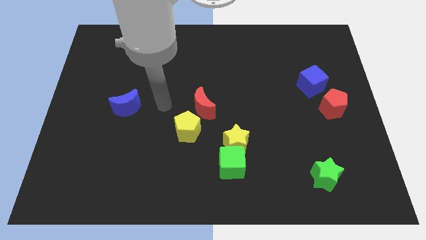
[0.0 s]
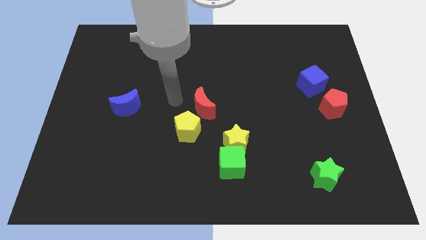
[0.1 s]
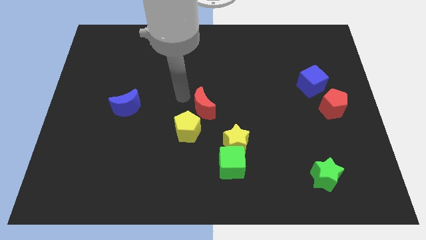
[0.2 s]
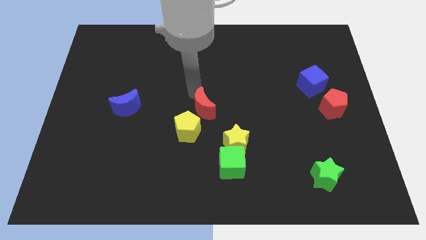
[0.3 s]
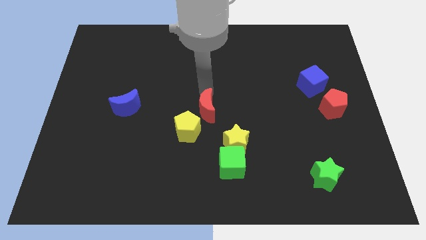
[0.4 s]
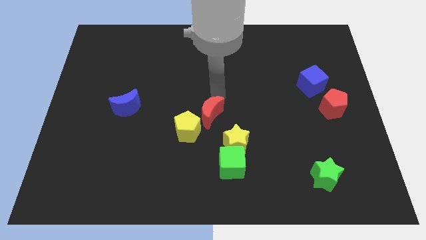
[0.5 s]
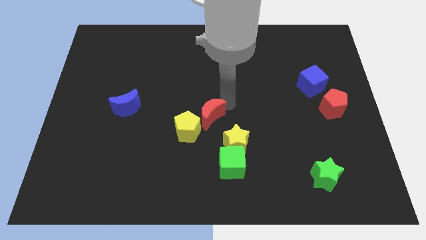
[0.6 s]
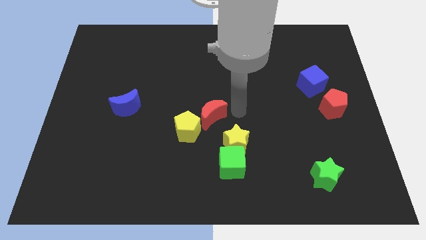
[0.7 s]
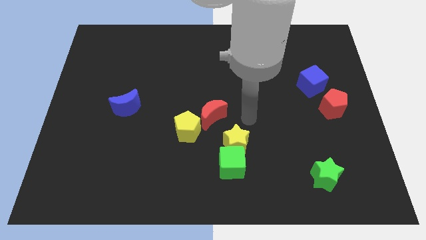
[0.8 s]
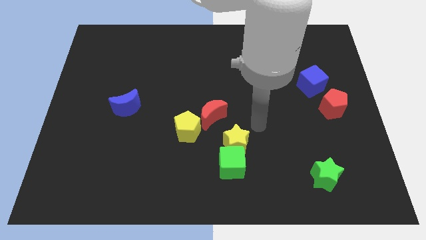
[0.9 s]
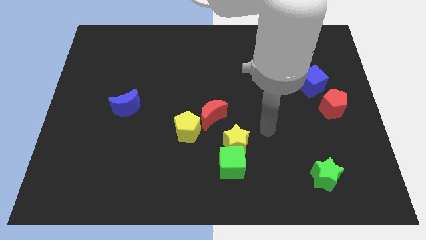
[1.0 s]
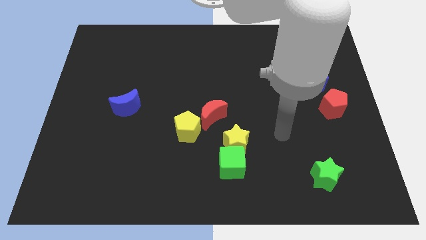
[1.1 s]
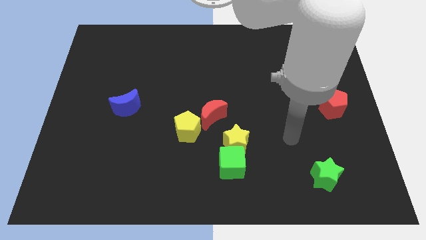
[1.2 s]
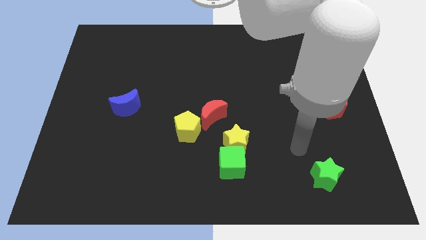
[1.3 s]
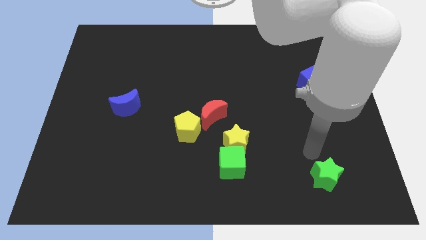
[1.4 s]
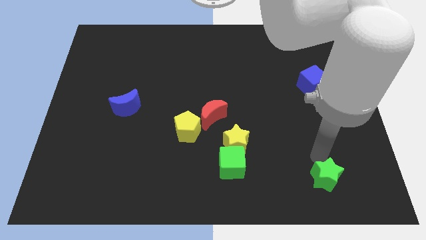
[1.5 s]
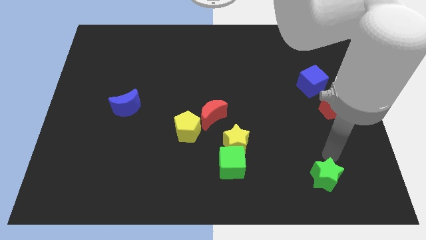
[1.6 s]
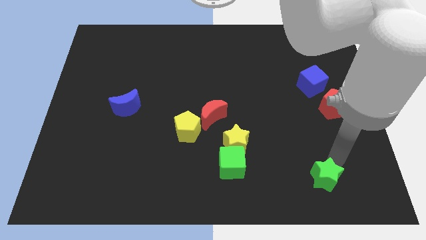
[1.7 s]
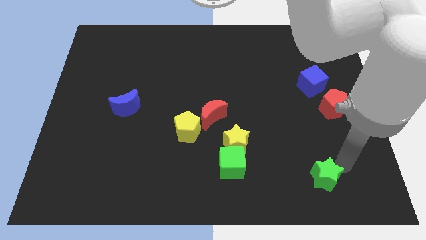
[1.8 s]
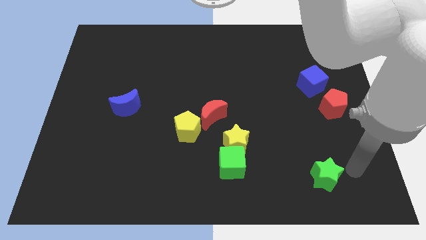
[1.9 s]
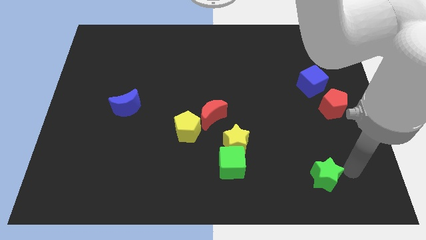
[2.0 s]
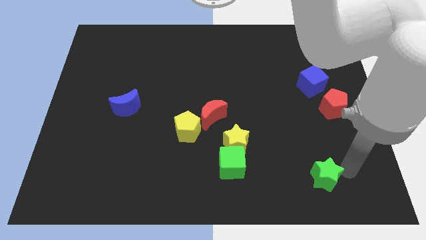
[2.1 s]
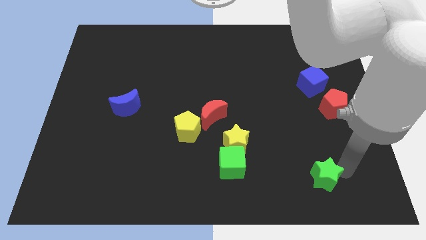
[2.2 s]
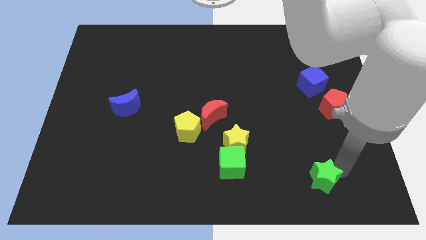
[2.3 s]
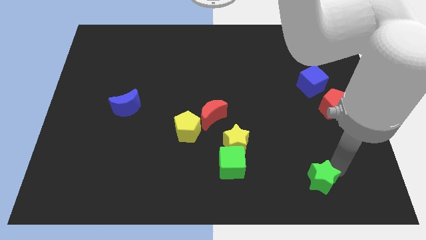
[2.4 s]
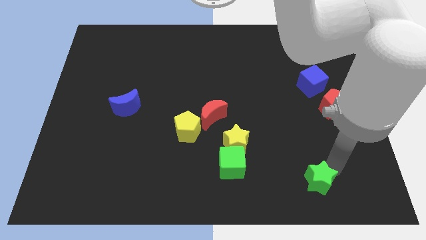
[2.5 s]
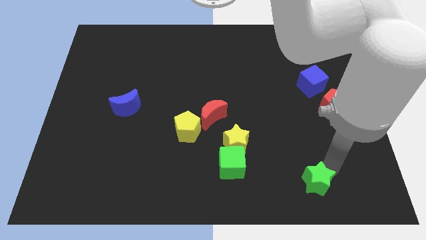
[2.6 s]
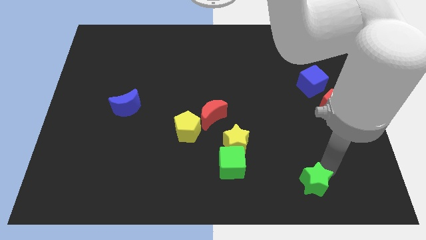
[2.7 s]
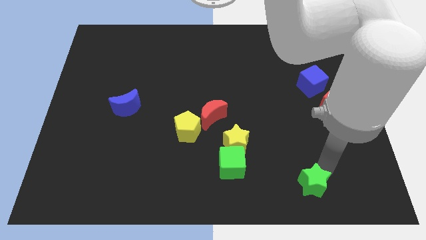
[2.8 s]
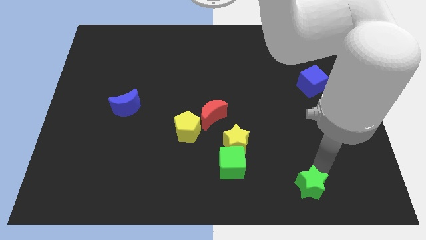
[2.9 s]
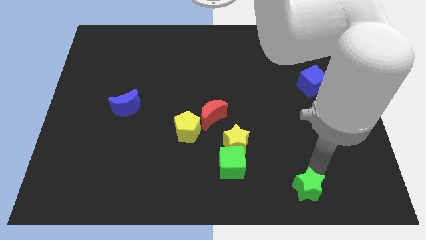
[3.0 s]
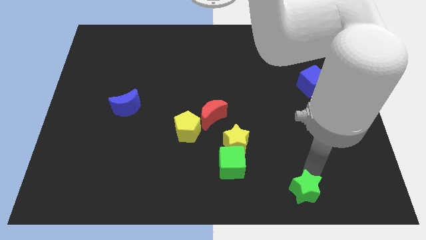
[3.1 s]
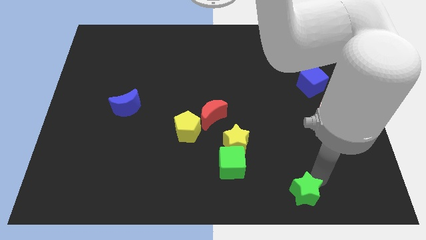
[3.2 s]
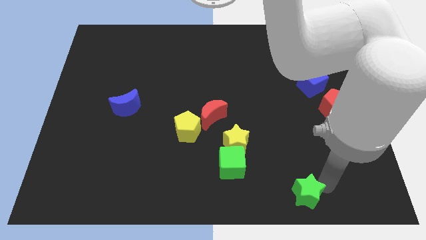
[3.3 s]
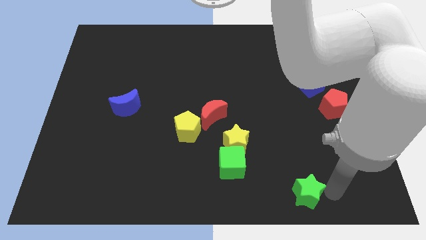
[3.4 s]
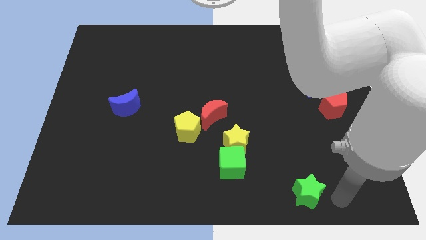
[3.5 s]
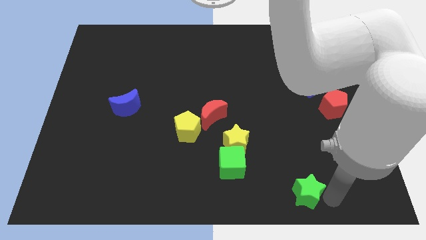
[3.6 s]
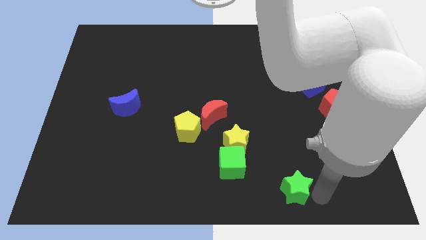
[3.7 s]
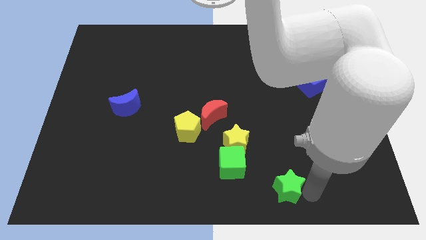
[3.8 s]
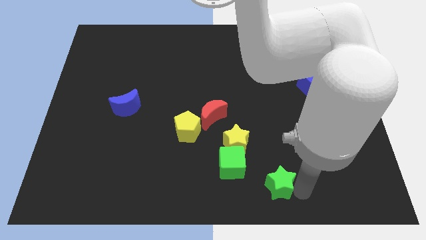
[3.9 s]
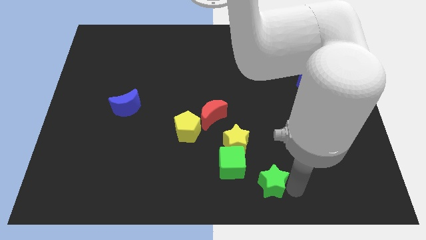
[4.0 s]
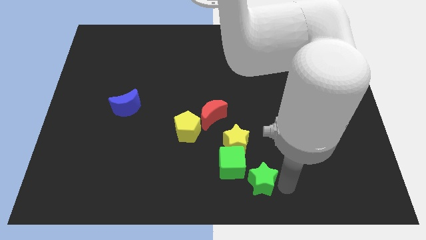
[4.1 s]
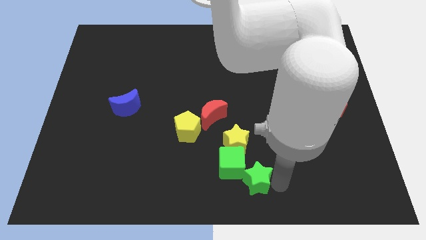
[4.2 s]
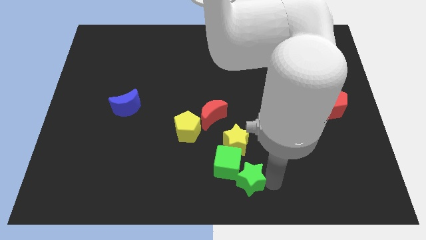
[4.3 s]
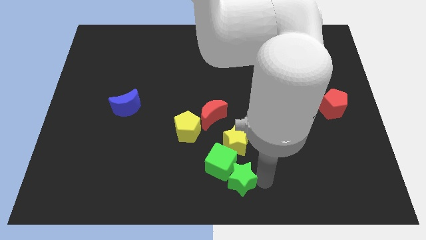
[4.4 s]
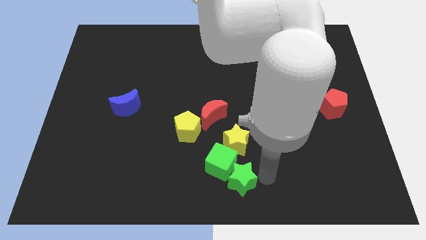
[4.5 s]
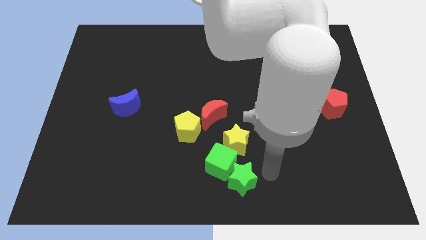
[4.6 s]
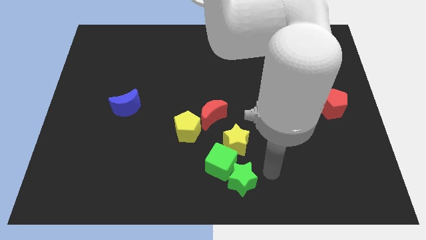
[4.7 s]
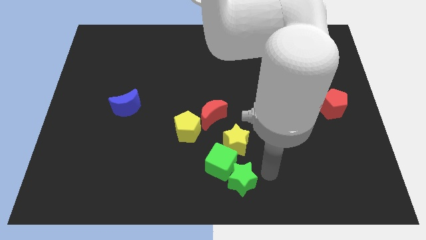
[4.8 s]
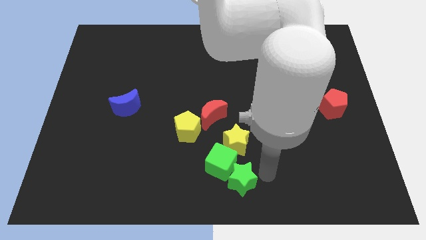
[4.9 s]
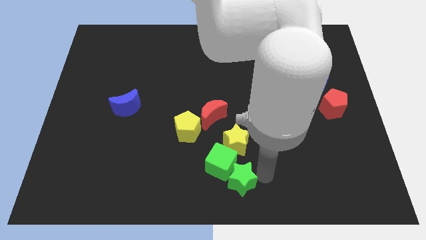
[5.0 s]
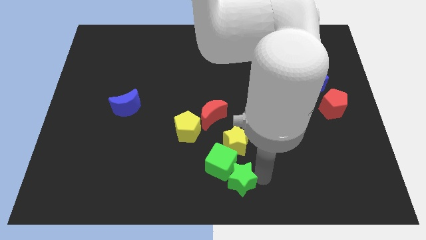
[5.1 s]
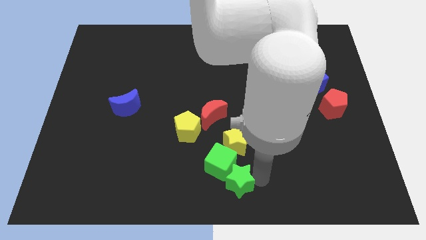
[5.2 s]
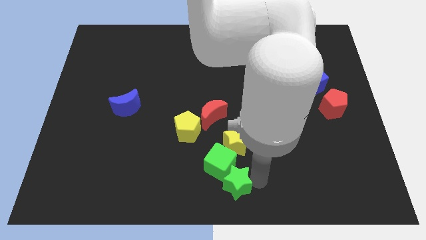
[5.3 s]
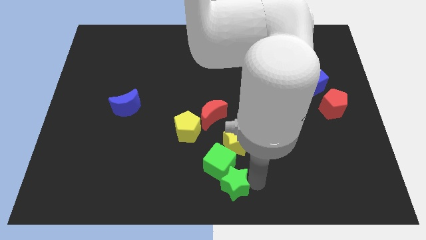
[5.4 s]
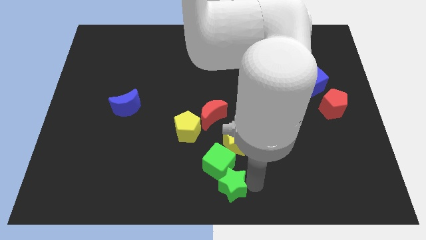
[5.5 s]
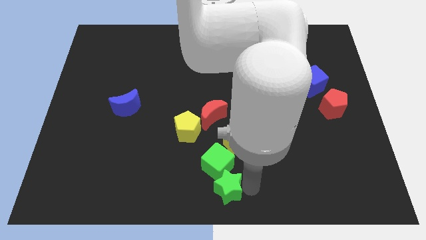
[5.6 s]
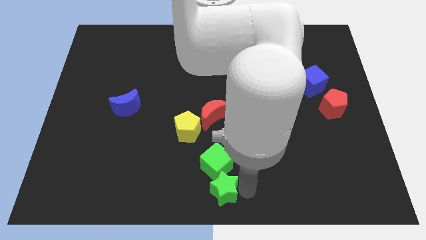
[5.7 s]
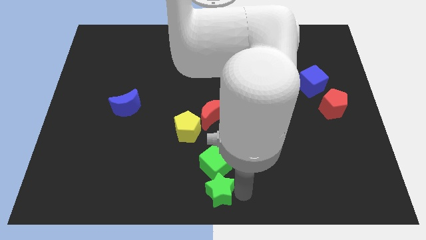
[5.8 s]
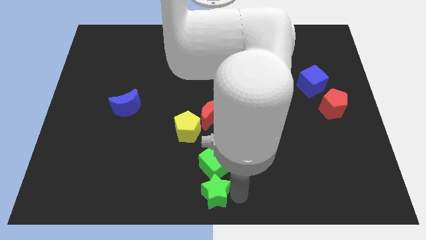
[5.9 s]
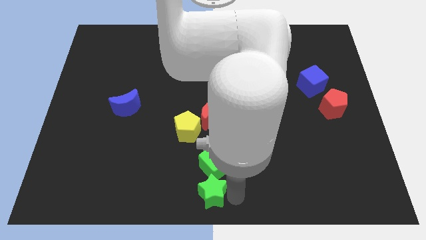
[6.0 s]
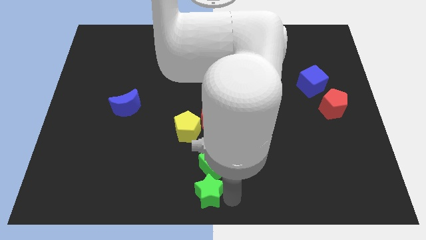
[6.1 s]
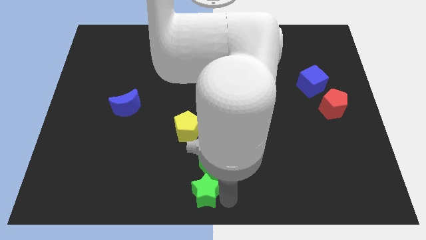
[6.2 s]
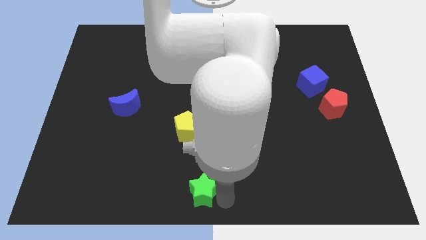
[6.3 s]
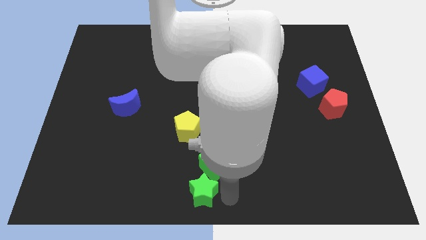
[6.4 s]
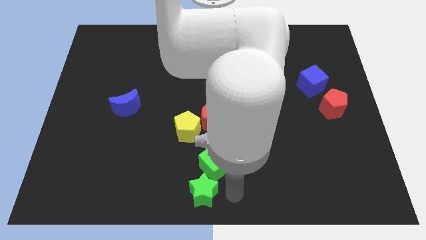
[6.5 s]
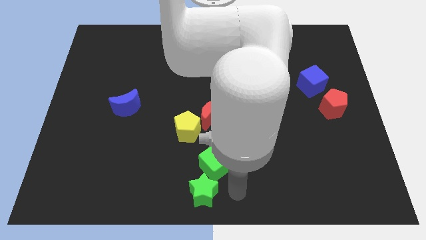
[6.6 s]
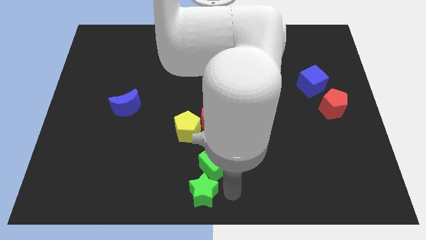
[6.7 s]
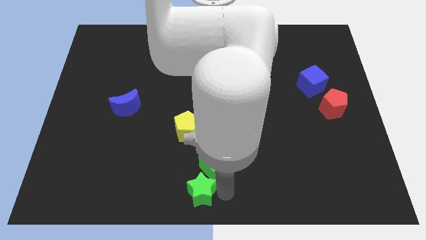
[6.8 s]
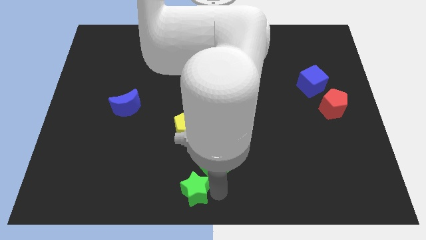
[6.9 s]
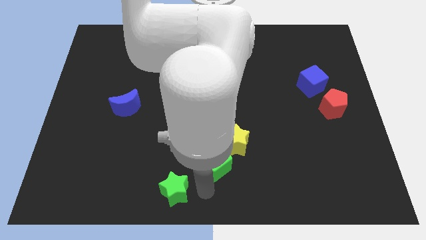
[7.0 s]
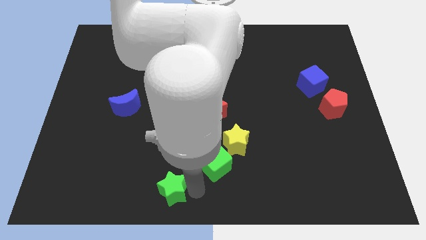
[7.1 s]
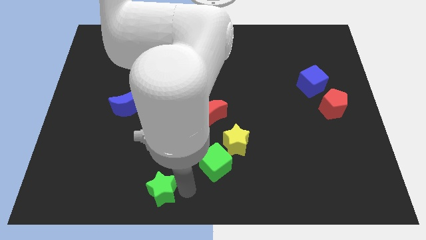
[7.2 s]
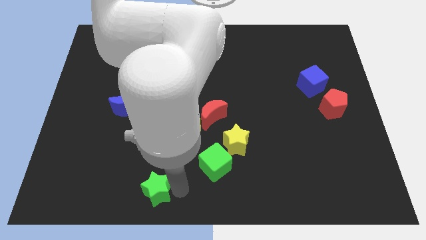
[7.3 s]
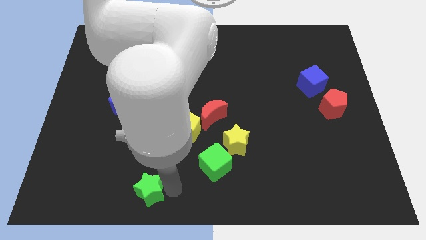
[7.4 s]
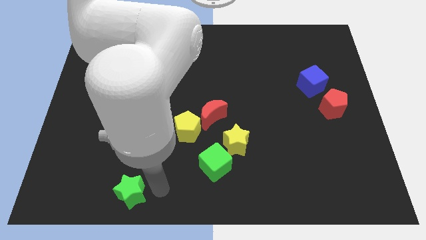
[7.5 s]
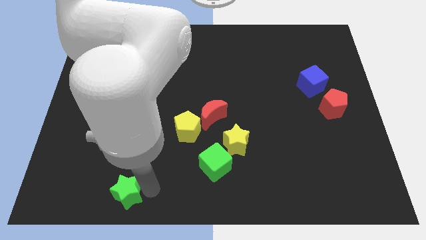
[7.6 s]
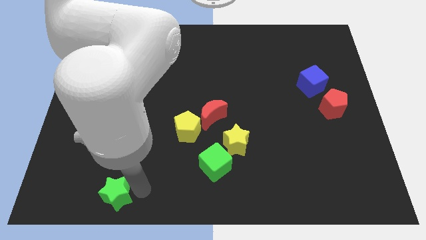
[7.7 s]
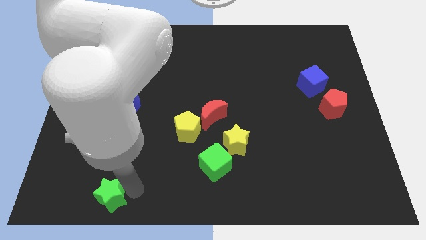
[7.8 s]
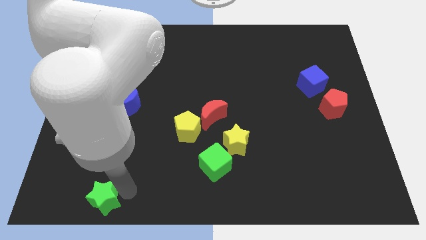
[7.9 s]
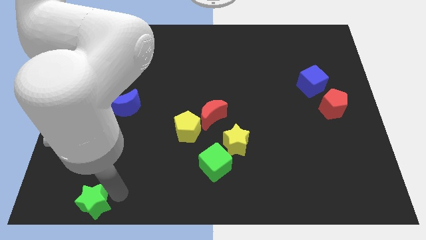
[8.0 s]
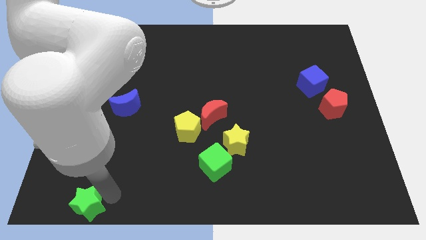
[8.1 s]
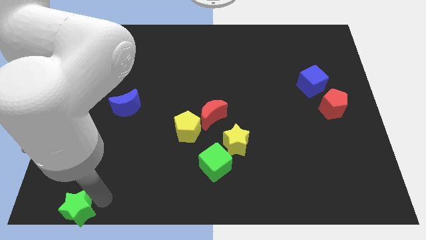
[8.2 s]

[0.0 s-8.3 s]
put the green star to the bottom left
